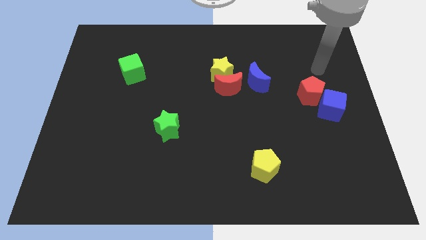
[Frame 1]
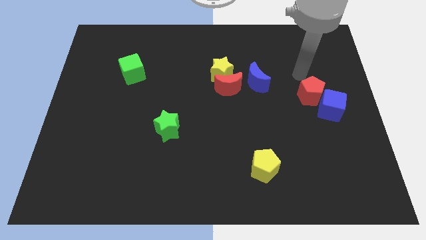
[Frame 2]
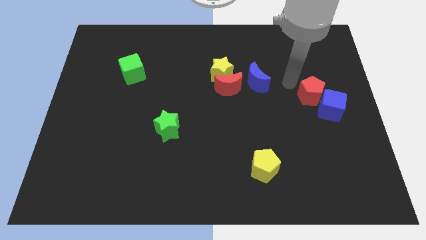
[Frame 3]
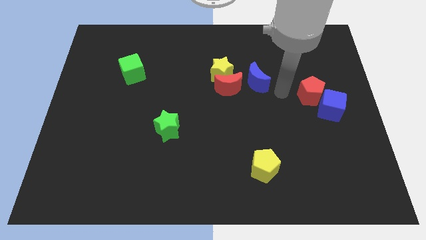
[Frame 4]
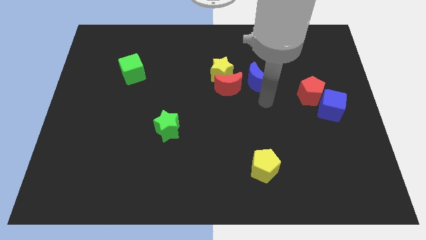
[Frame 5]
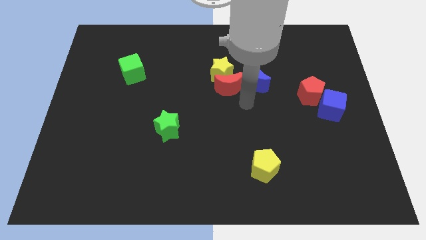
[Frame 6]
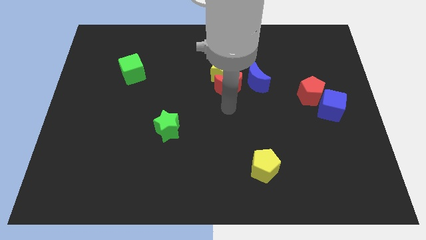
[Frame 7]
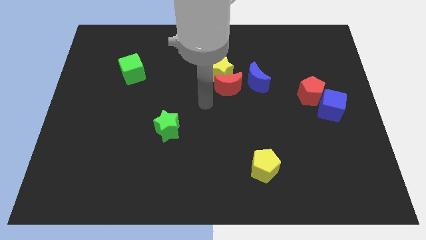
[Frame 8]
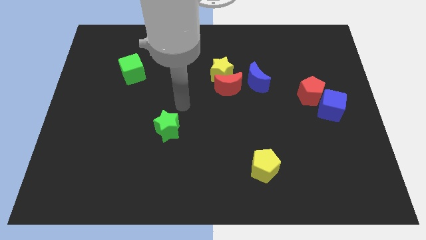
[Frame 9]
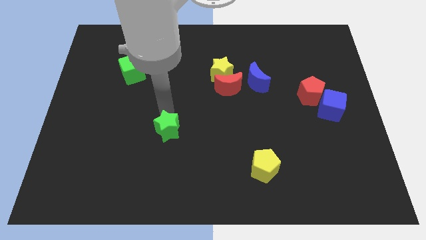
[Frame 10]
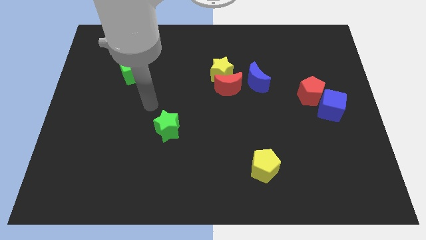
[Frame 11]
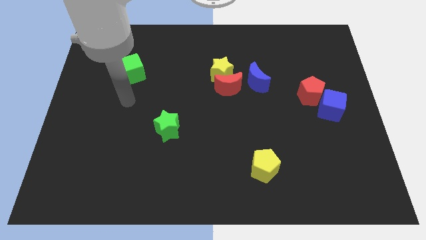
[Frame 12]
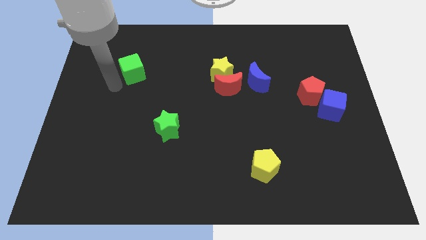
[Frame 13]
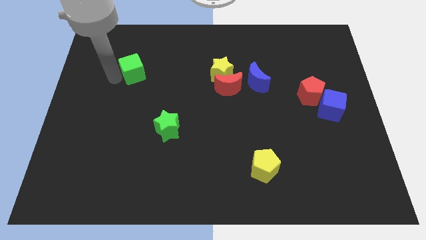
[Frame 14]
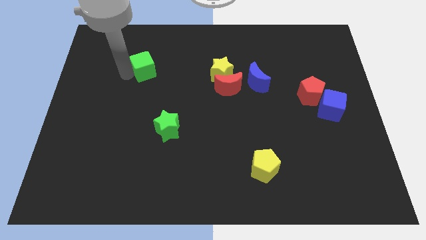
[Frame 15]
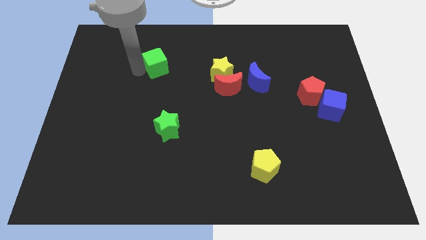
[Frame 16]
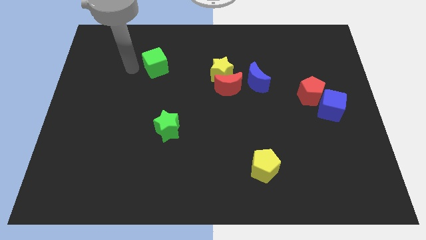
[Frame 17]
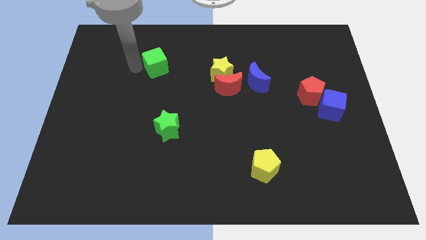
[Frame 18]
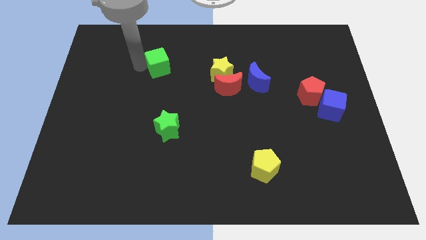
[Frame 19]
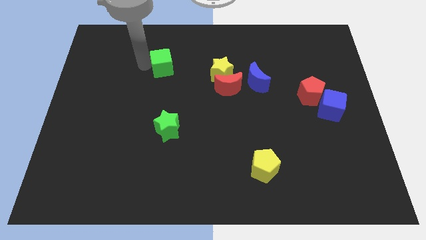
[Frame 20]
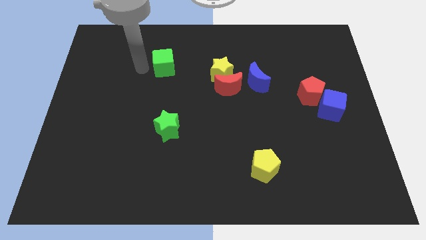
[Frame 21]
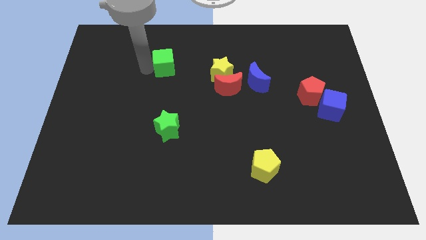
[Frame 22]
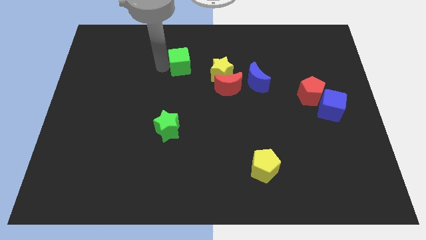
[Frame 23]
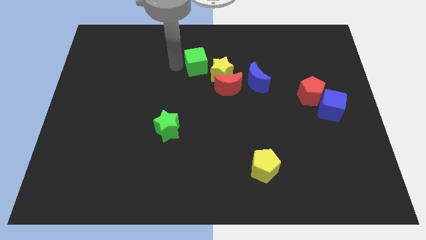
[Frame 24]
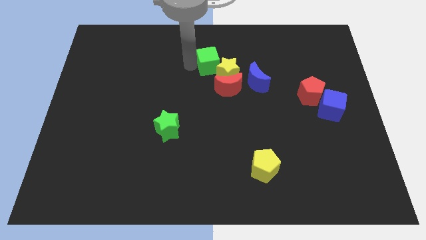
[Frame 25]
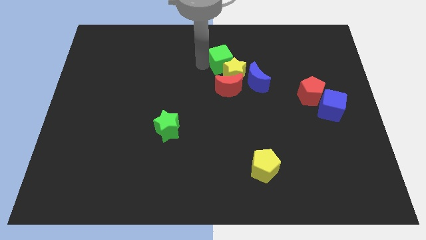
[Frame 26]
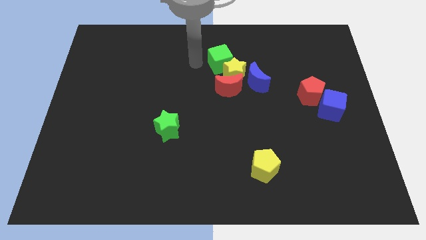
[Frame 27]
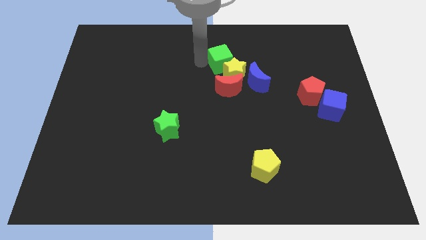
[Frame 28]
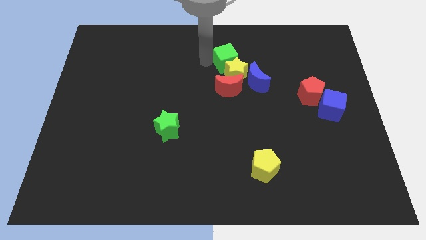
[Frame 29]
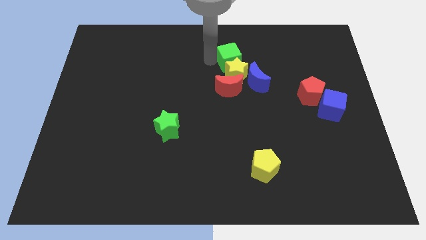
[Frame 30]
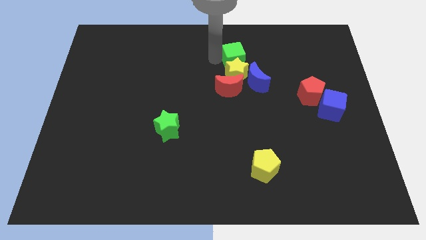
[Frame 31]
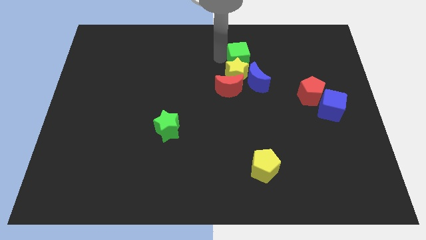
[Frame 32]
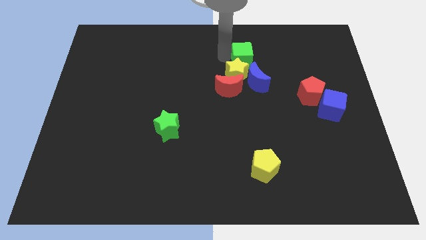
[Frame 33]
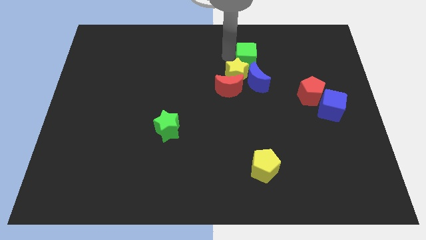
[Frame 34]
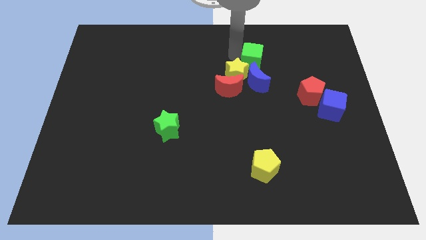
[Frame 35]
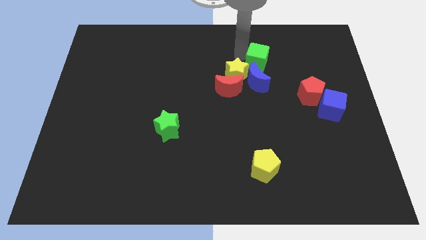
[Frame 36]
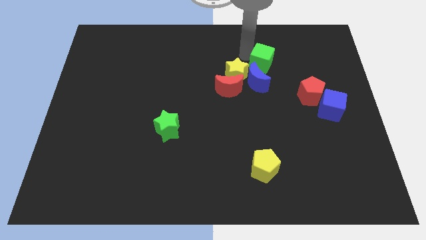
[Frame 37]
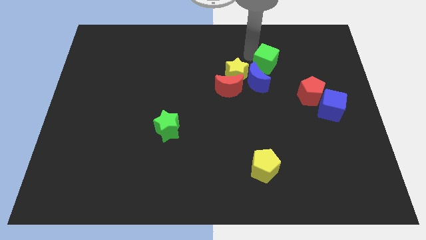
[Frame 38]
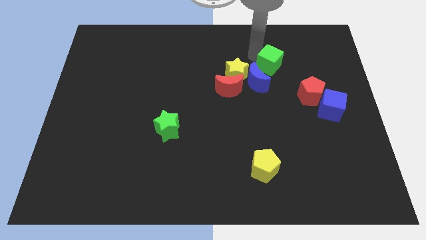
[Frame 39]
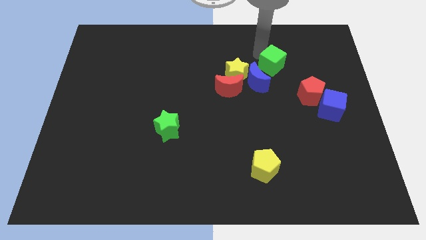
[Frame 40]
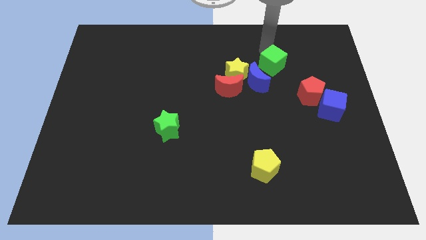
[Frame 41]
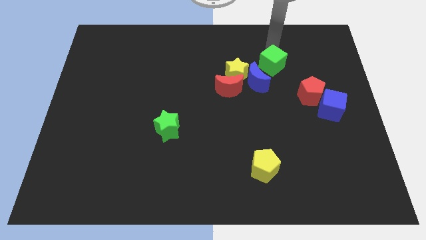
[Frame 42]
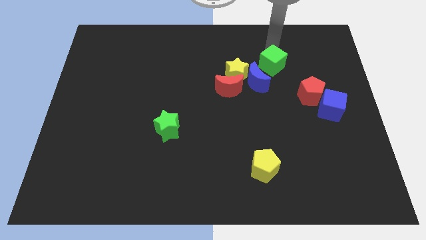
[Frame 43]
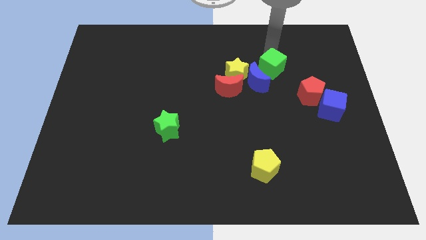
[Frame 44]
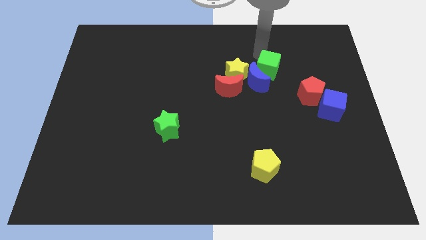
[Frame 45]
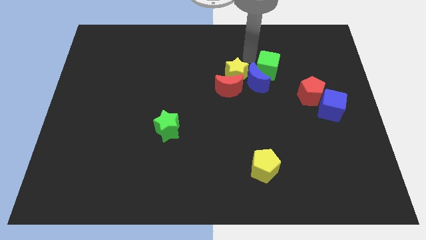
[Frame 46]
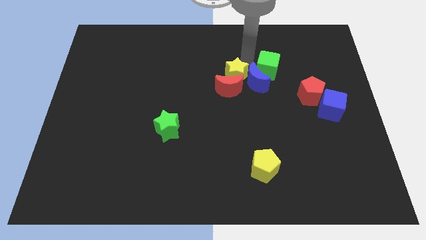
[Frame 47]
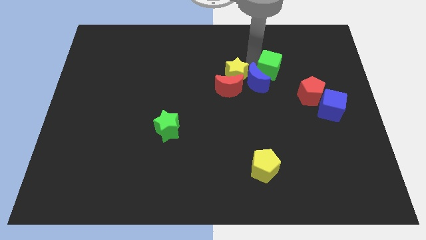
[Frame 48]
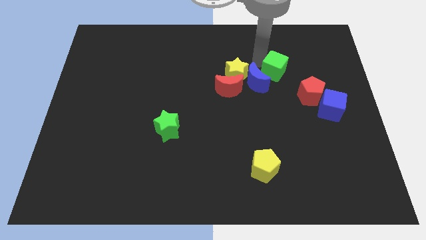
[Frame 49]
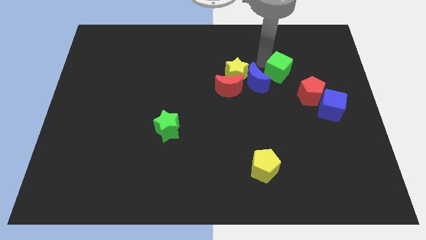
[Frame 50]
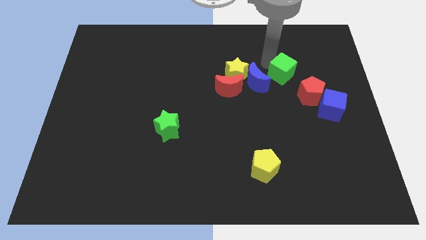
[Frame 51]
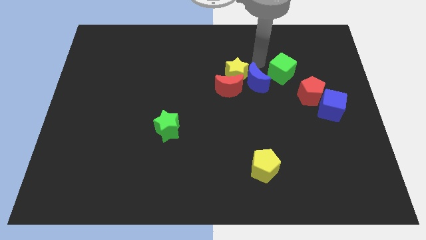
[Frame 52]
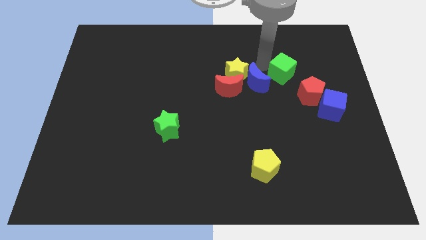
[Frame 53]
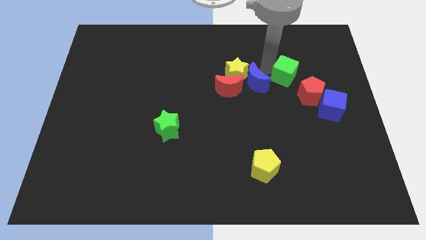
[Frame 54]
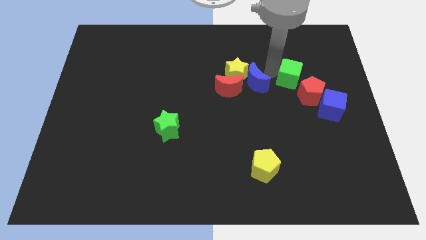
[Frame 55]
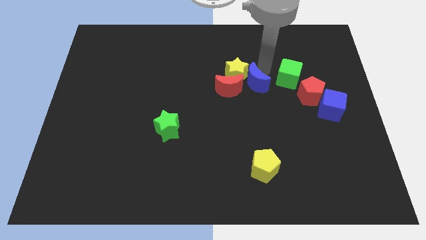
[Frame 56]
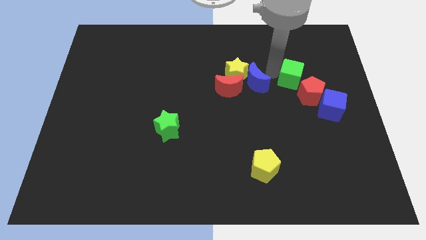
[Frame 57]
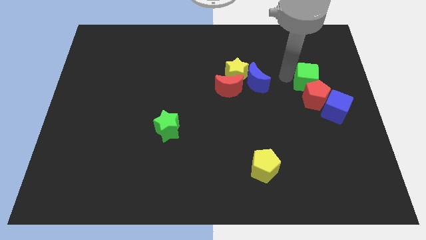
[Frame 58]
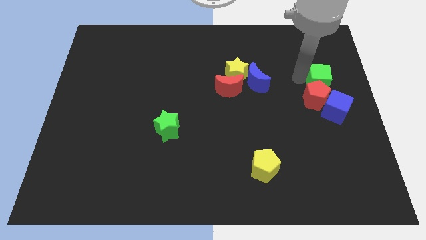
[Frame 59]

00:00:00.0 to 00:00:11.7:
put the green cube to the center right
